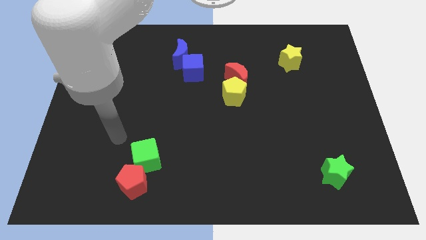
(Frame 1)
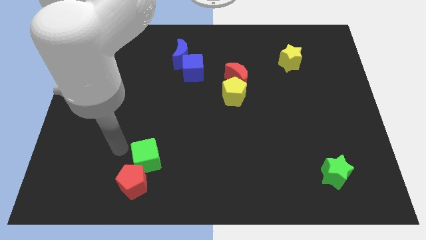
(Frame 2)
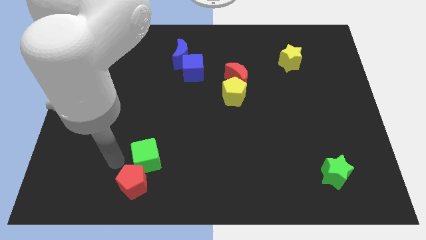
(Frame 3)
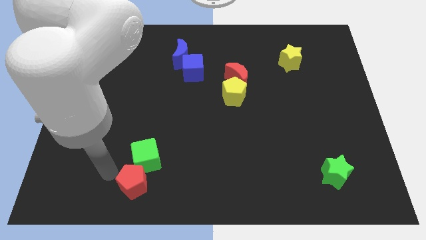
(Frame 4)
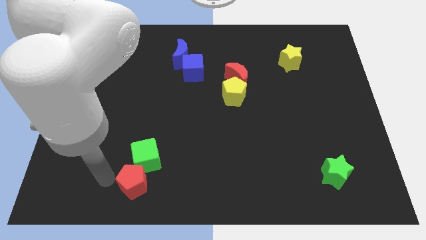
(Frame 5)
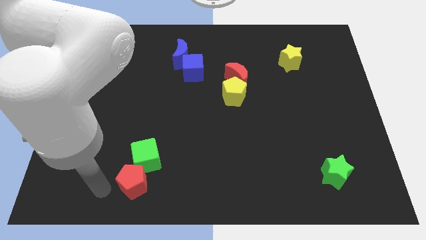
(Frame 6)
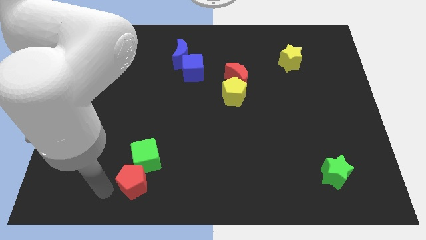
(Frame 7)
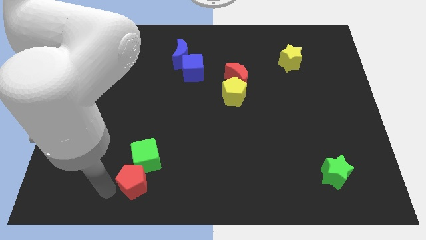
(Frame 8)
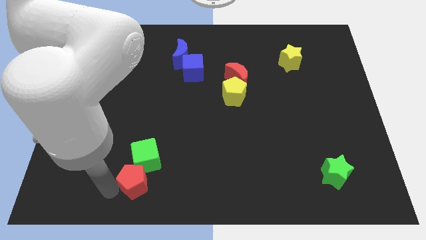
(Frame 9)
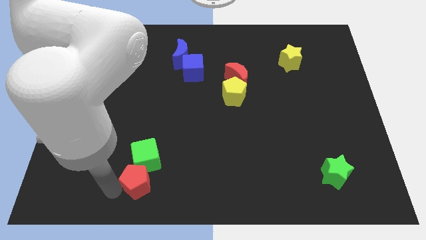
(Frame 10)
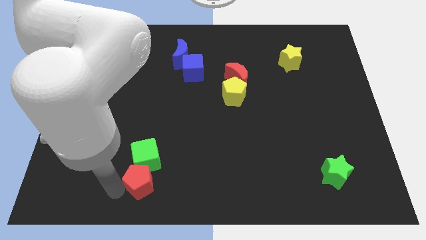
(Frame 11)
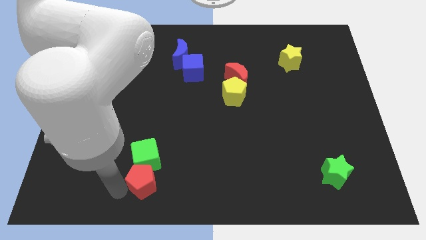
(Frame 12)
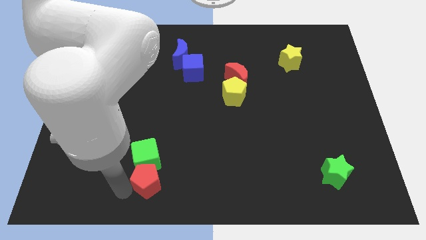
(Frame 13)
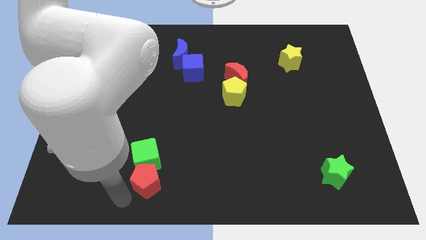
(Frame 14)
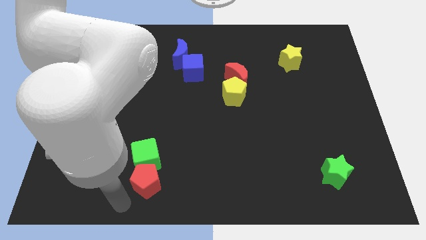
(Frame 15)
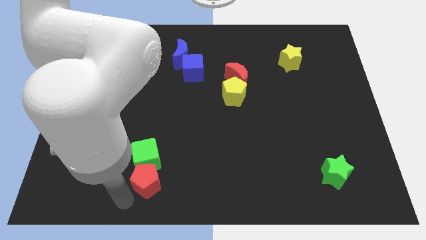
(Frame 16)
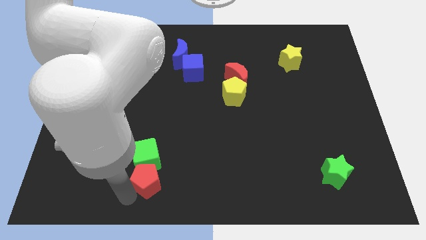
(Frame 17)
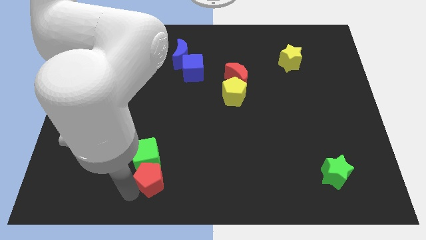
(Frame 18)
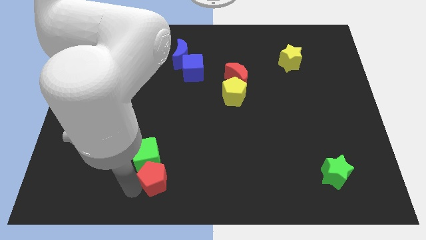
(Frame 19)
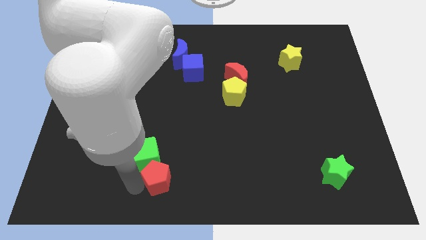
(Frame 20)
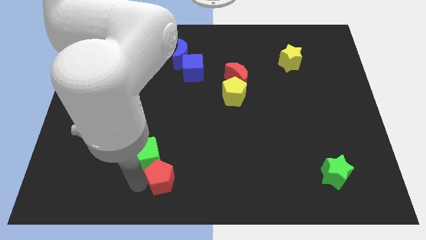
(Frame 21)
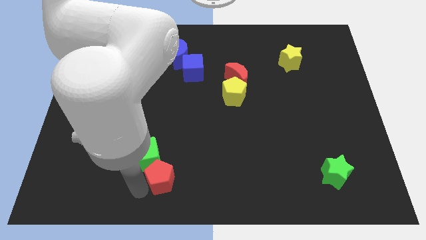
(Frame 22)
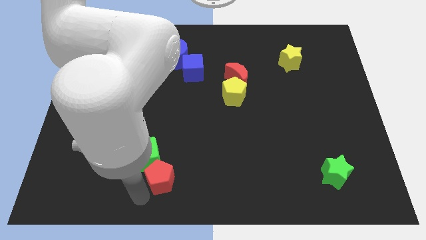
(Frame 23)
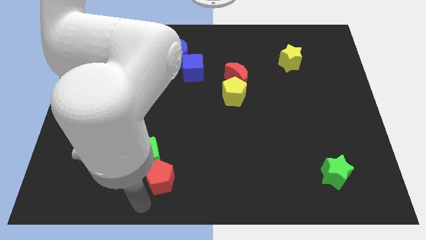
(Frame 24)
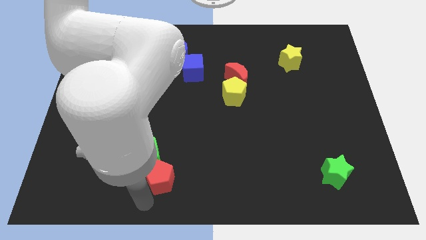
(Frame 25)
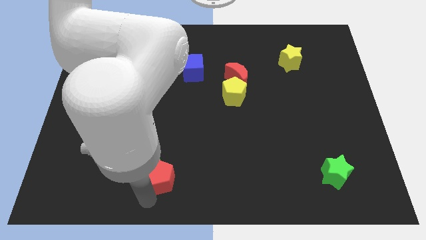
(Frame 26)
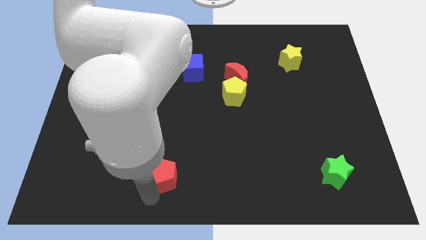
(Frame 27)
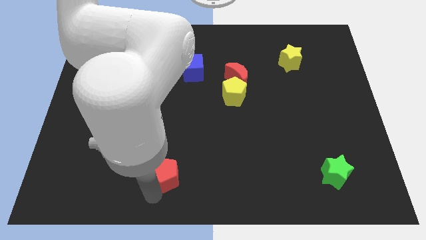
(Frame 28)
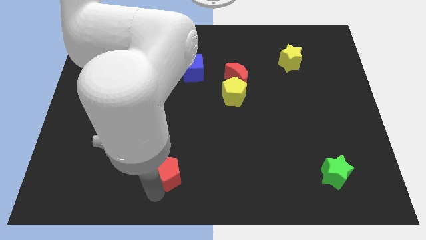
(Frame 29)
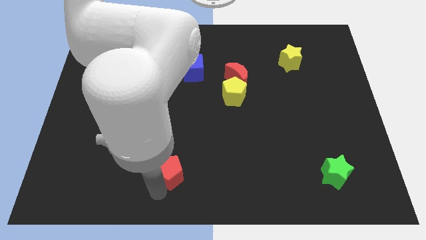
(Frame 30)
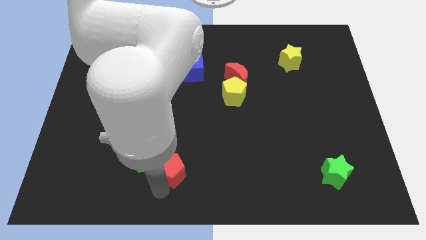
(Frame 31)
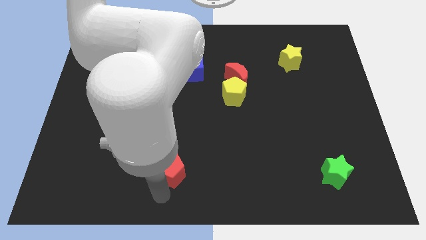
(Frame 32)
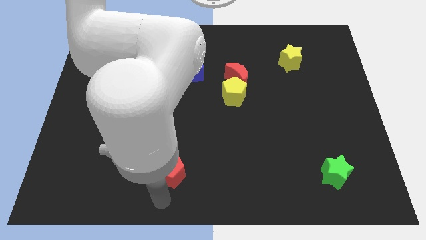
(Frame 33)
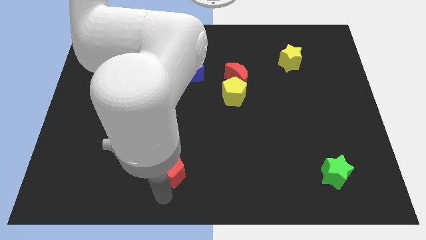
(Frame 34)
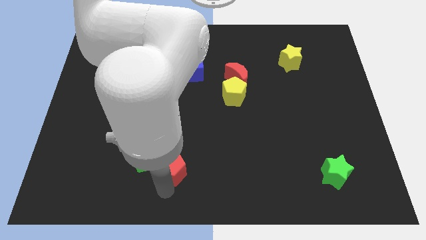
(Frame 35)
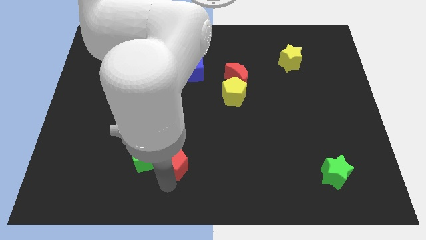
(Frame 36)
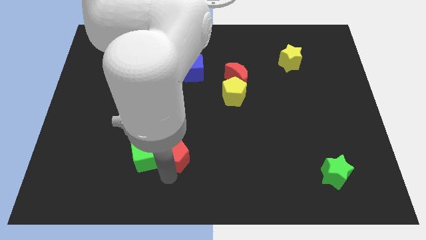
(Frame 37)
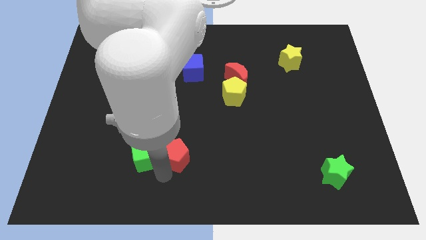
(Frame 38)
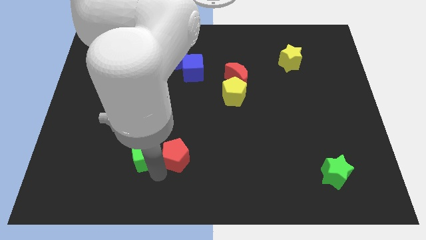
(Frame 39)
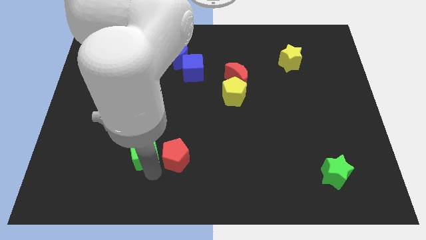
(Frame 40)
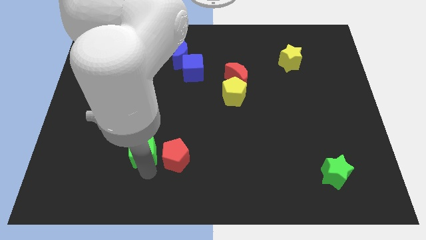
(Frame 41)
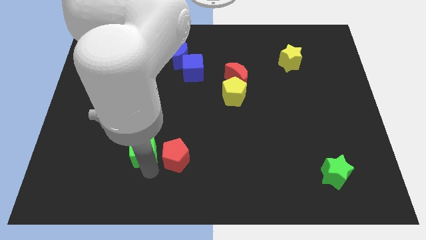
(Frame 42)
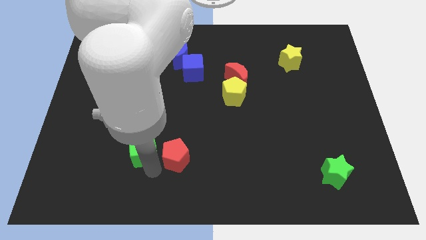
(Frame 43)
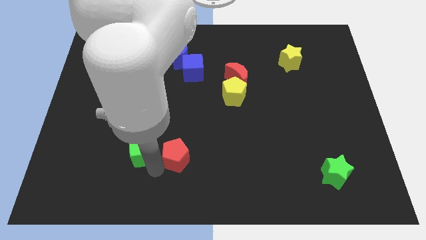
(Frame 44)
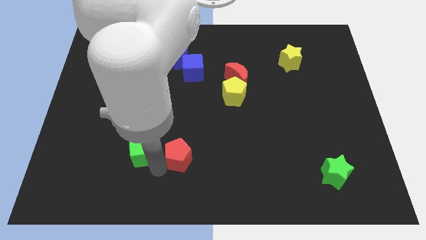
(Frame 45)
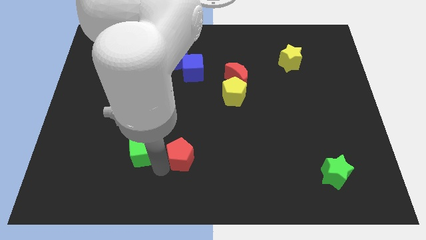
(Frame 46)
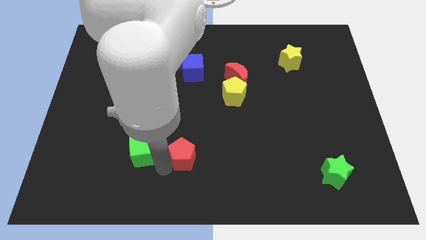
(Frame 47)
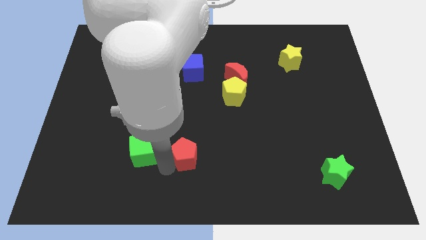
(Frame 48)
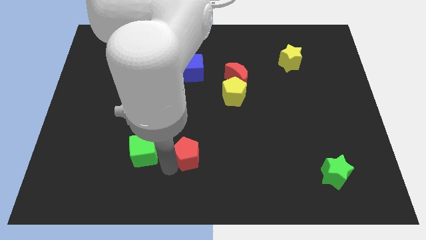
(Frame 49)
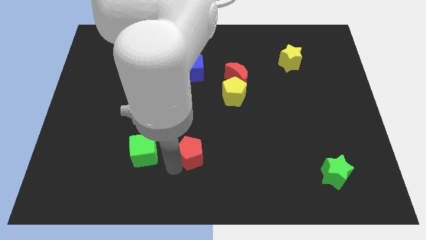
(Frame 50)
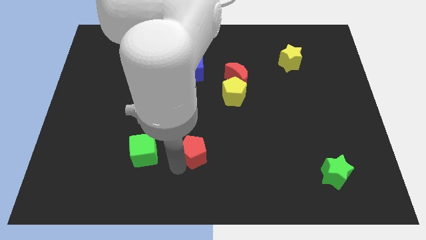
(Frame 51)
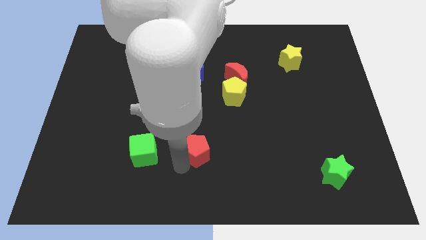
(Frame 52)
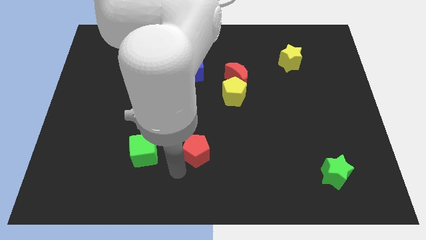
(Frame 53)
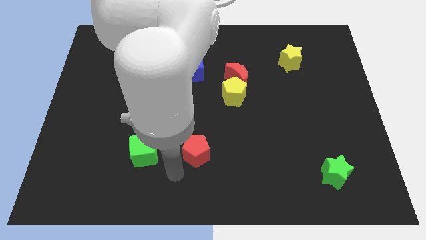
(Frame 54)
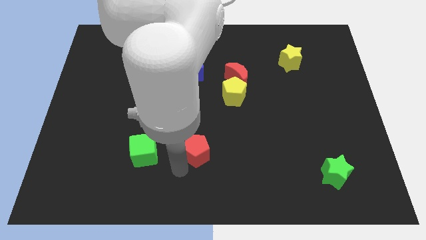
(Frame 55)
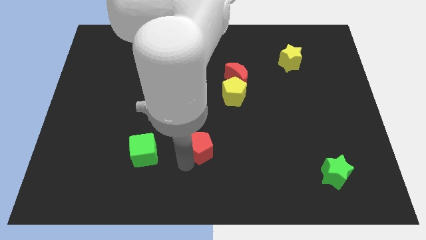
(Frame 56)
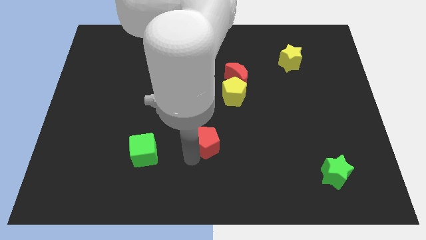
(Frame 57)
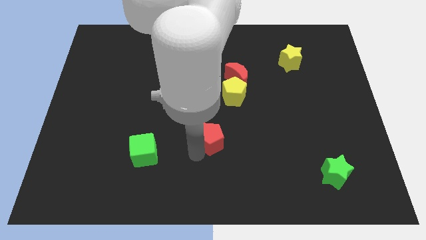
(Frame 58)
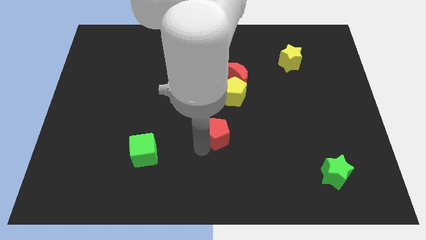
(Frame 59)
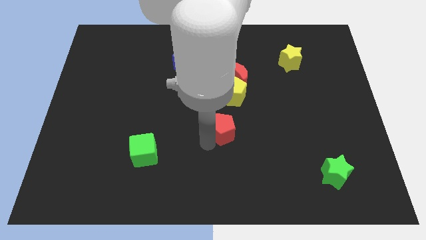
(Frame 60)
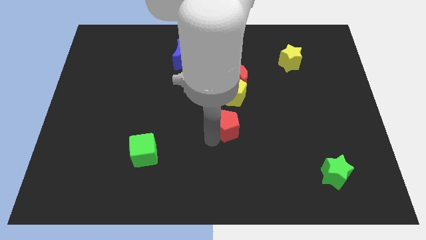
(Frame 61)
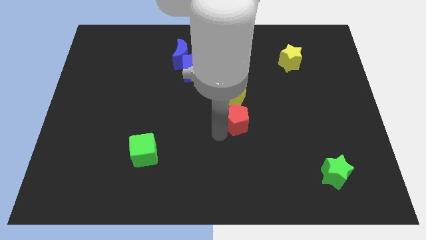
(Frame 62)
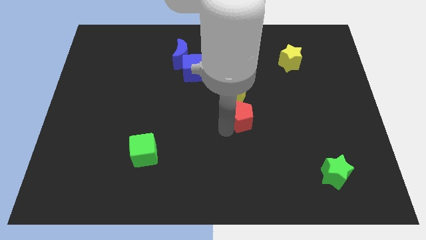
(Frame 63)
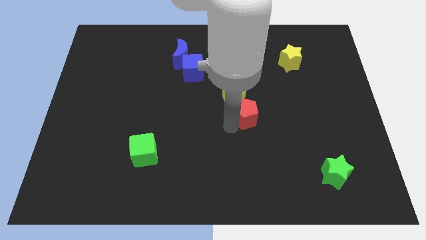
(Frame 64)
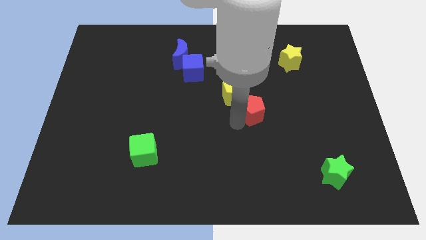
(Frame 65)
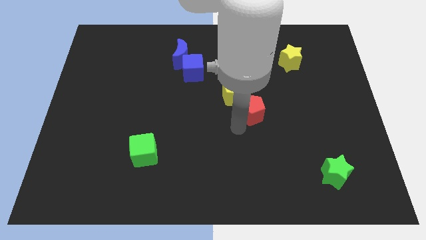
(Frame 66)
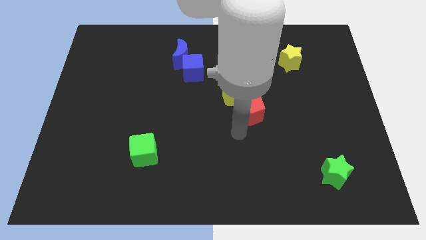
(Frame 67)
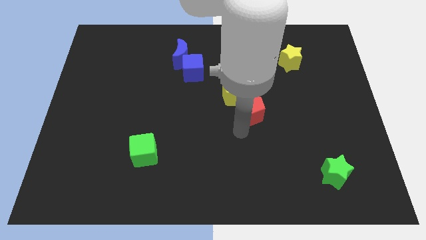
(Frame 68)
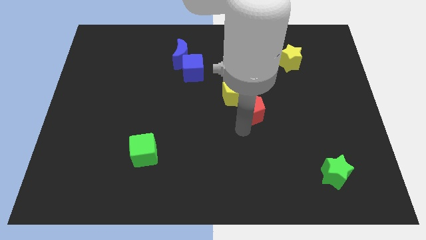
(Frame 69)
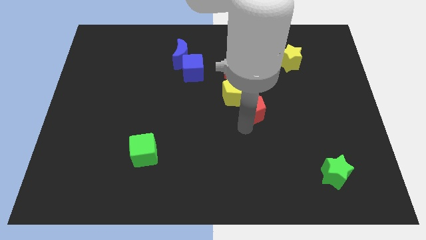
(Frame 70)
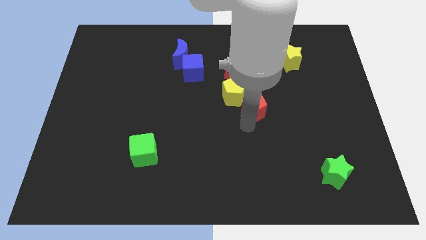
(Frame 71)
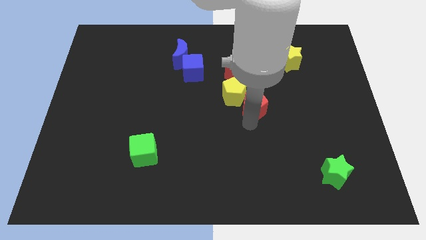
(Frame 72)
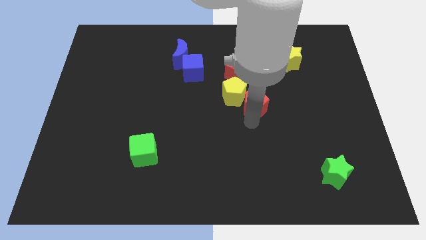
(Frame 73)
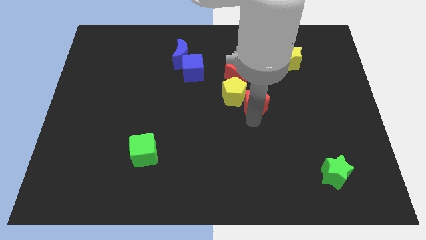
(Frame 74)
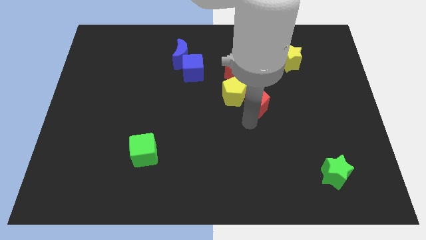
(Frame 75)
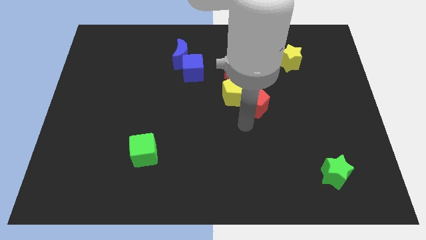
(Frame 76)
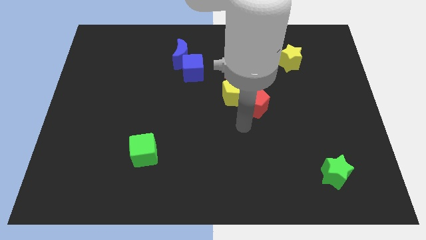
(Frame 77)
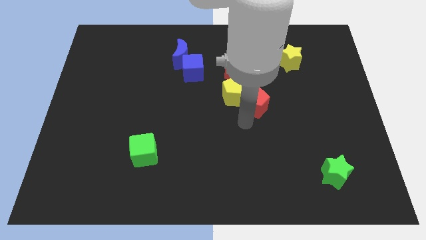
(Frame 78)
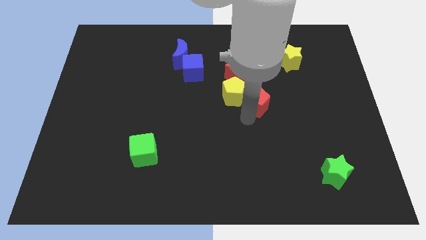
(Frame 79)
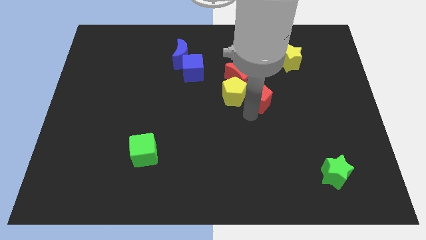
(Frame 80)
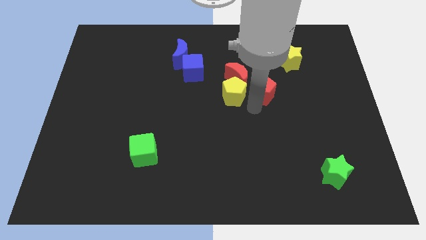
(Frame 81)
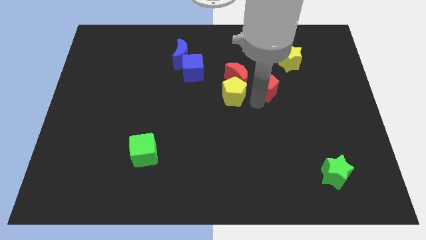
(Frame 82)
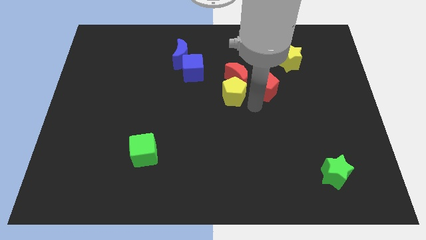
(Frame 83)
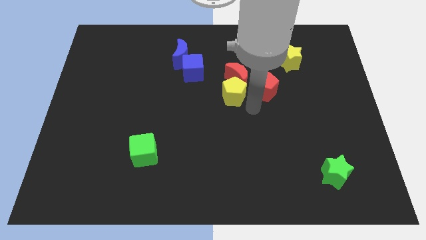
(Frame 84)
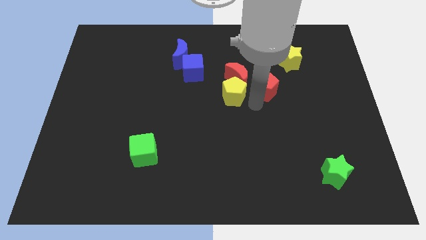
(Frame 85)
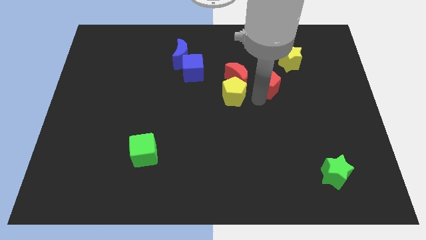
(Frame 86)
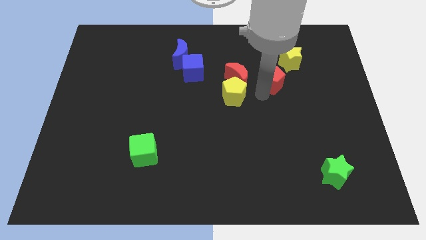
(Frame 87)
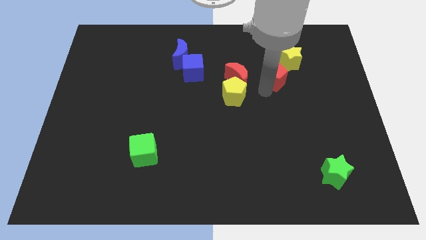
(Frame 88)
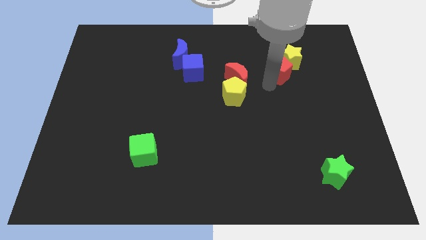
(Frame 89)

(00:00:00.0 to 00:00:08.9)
put the red pentagon next to the yellow star
